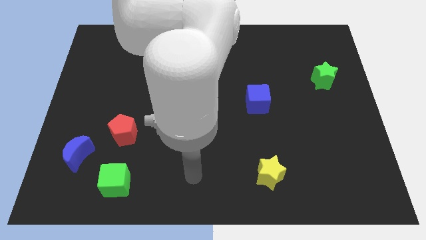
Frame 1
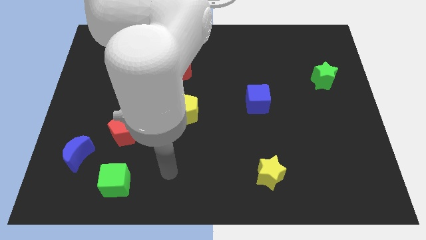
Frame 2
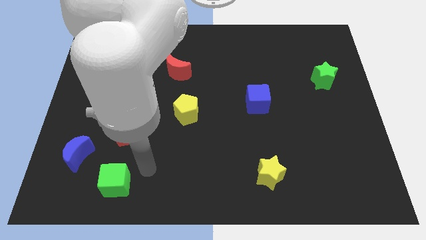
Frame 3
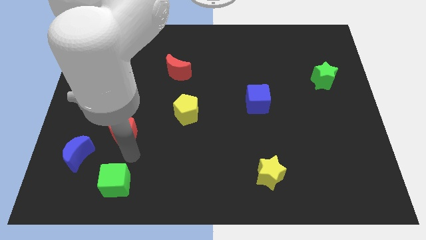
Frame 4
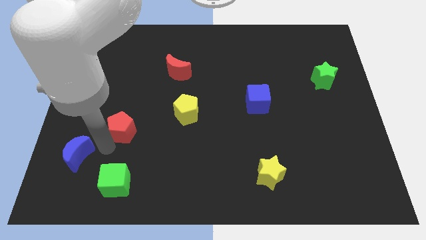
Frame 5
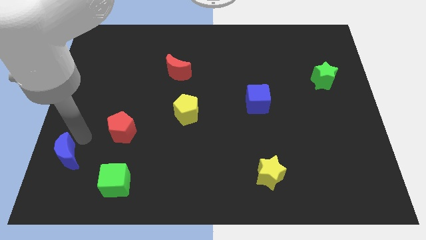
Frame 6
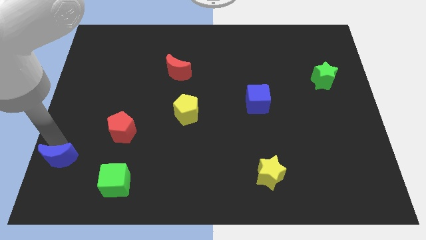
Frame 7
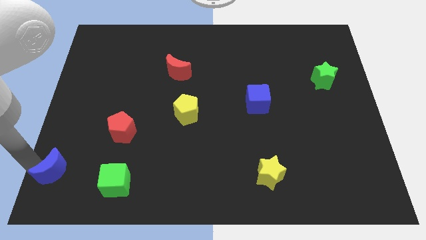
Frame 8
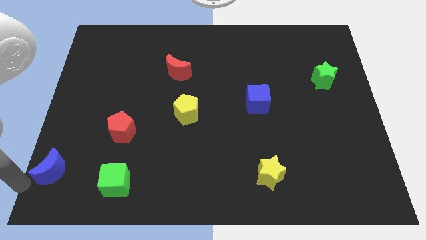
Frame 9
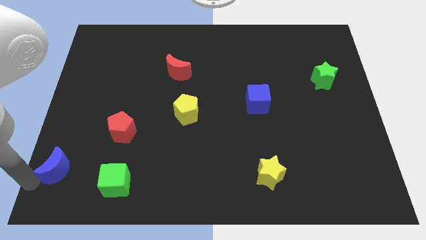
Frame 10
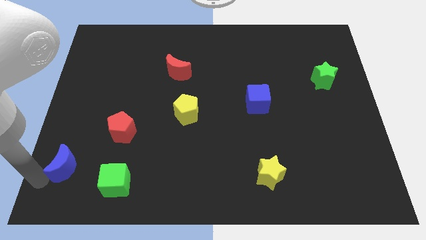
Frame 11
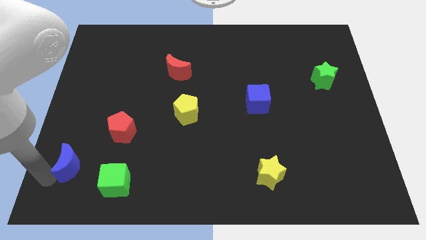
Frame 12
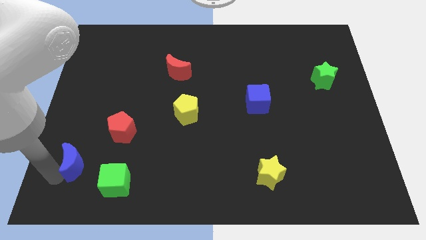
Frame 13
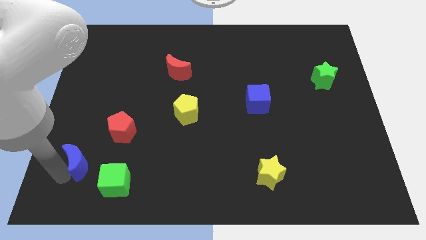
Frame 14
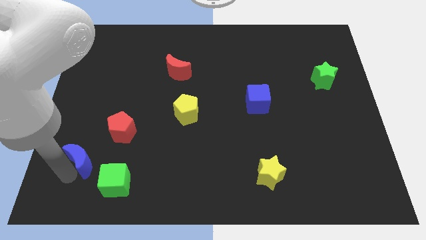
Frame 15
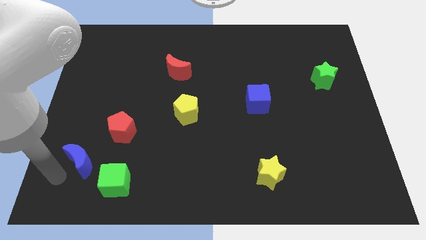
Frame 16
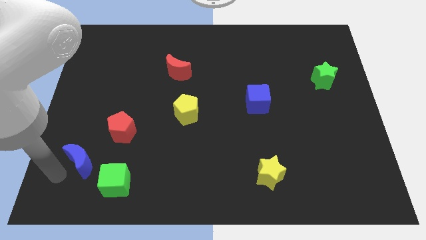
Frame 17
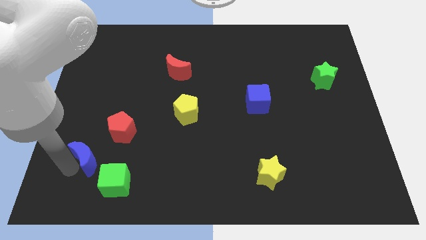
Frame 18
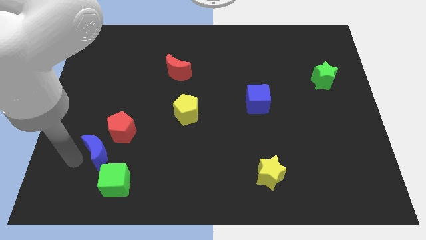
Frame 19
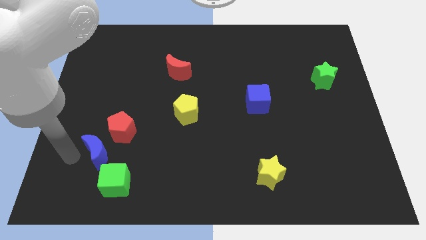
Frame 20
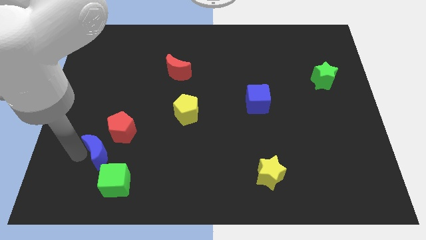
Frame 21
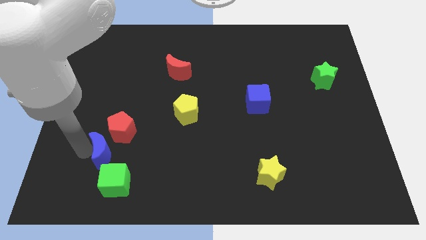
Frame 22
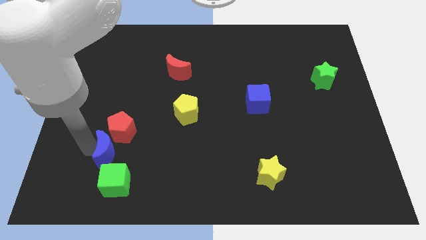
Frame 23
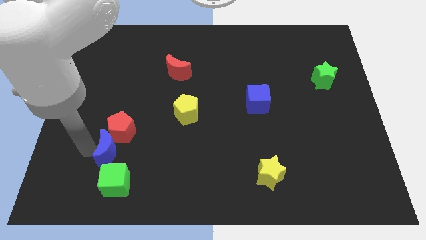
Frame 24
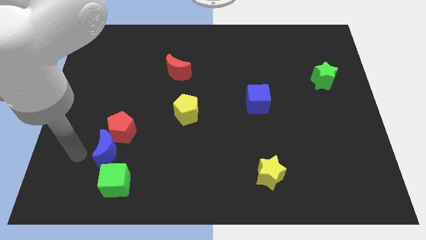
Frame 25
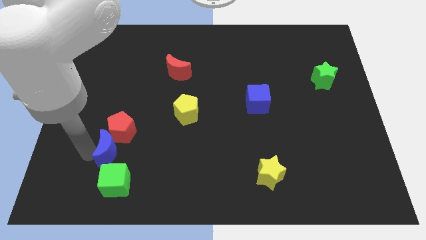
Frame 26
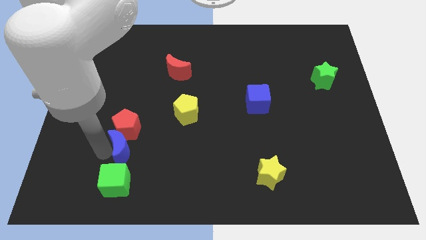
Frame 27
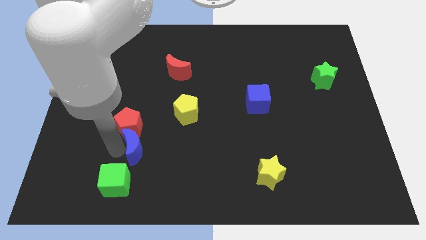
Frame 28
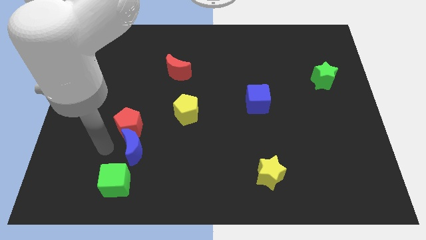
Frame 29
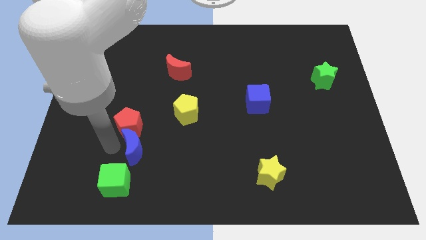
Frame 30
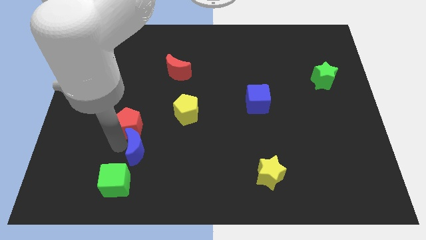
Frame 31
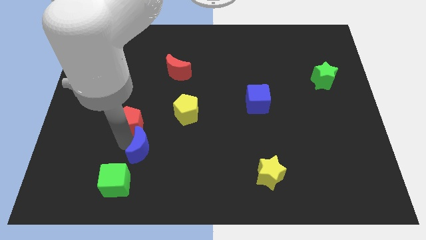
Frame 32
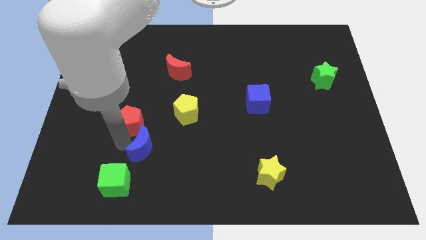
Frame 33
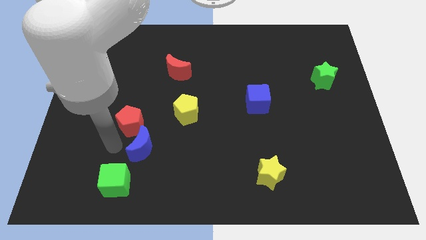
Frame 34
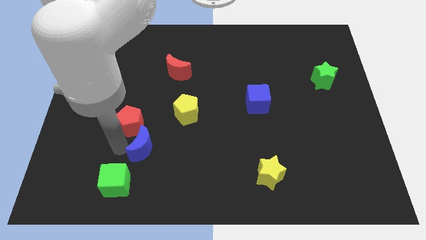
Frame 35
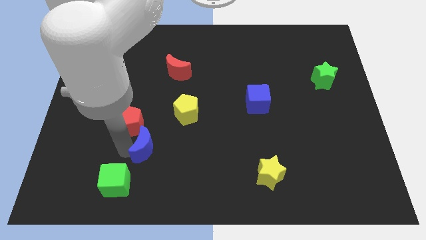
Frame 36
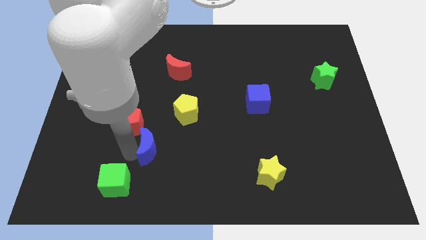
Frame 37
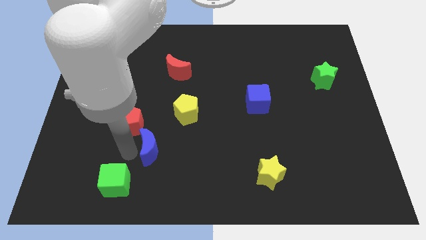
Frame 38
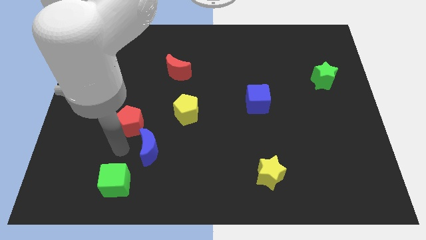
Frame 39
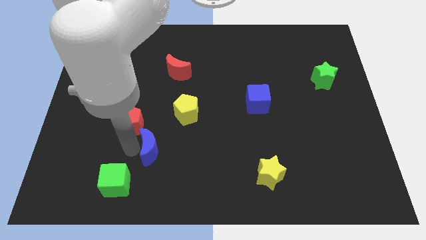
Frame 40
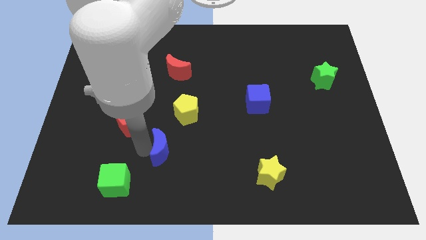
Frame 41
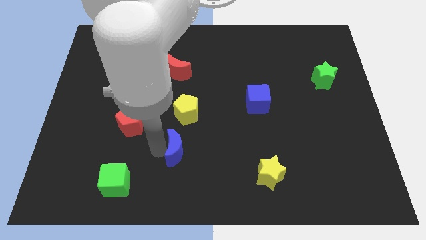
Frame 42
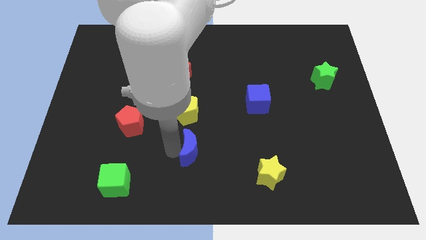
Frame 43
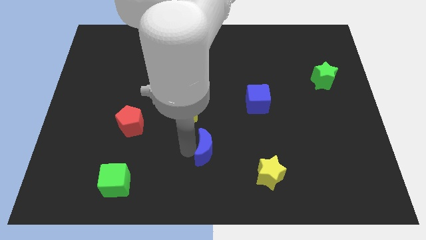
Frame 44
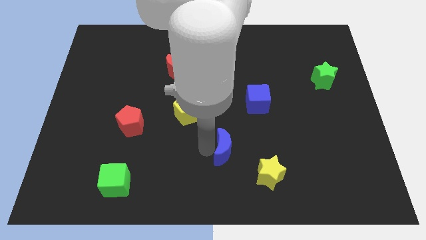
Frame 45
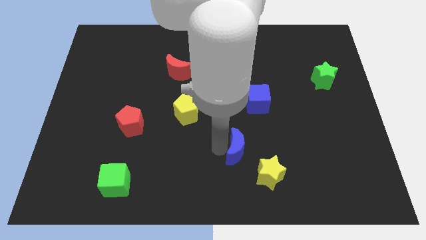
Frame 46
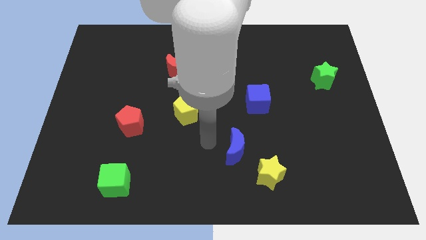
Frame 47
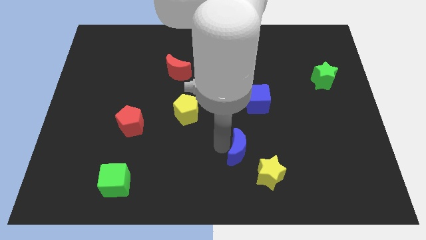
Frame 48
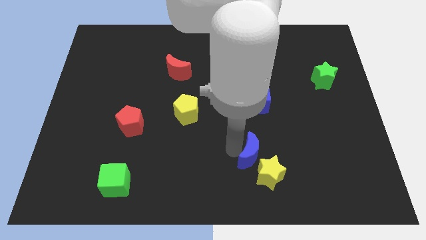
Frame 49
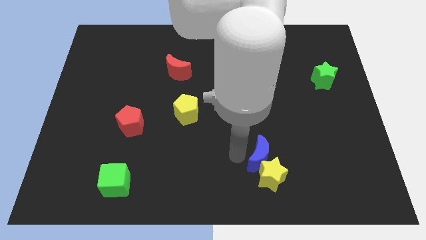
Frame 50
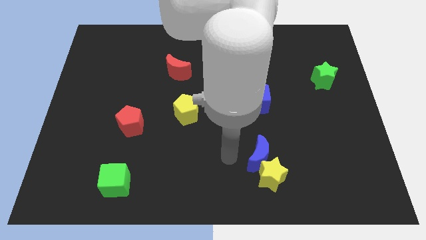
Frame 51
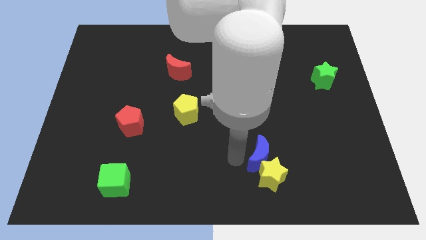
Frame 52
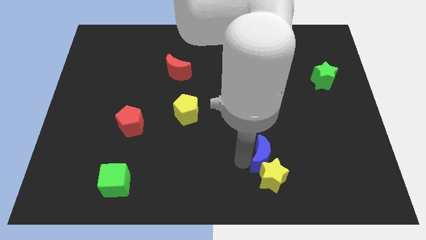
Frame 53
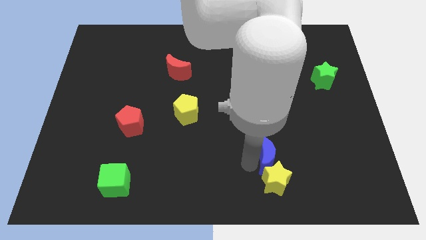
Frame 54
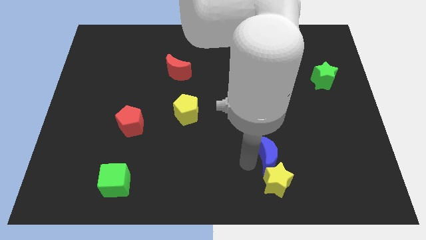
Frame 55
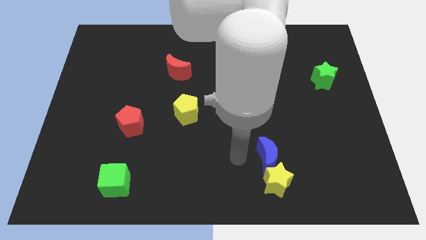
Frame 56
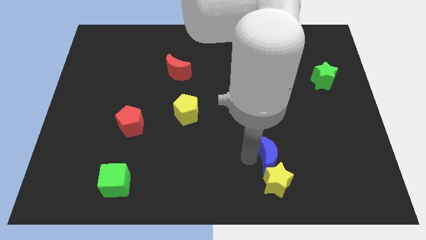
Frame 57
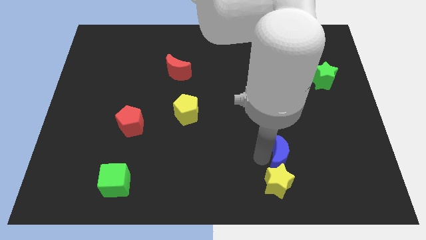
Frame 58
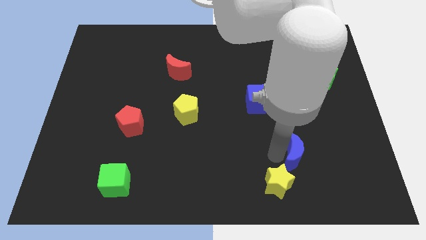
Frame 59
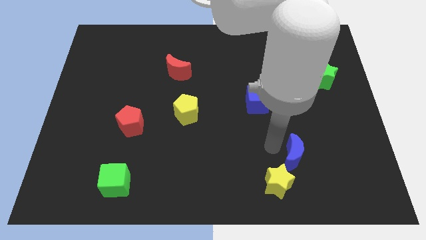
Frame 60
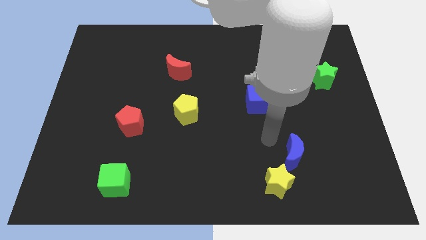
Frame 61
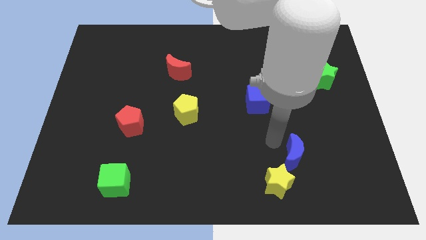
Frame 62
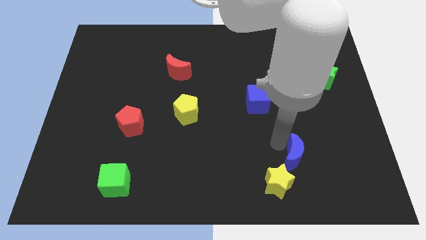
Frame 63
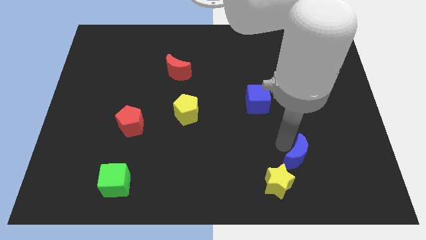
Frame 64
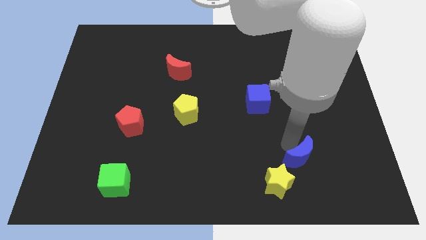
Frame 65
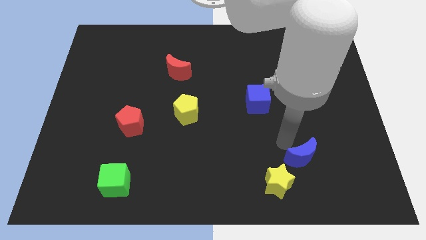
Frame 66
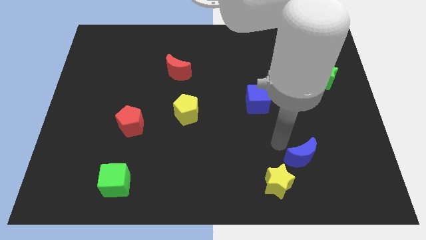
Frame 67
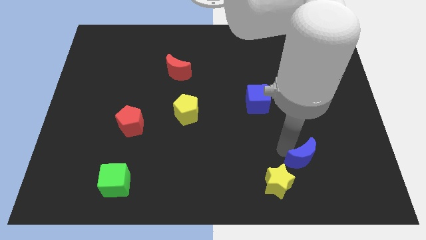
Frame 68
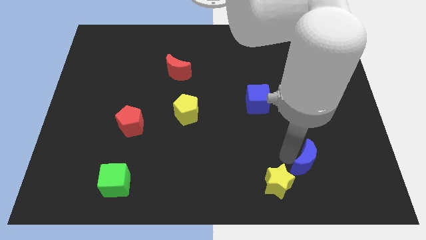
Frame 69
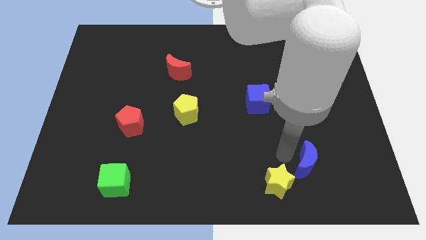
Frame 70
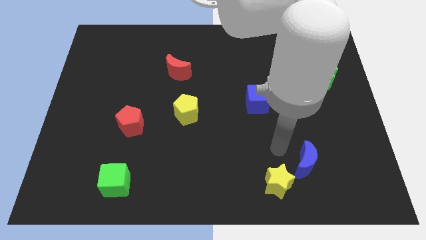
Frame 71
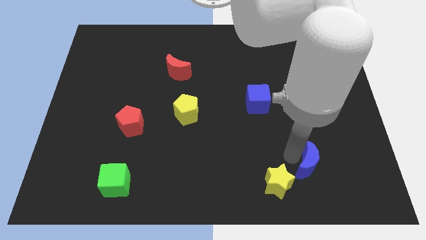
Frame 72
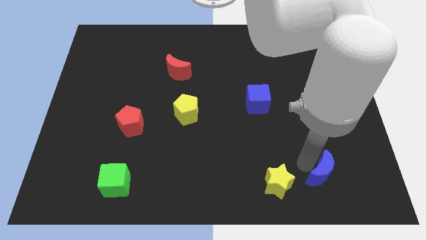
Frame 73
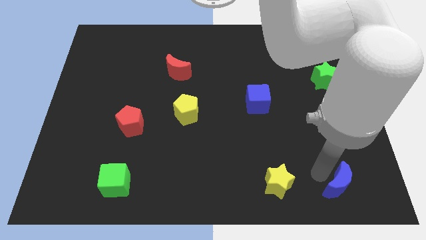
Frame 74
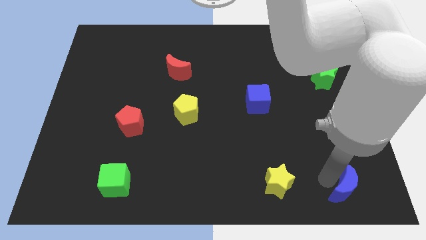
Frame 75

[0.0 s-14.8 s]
put the blue moon to the bottom right corner
